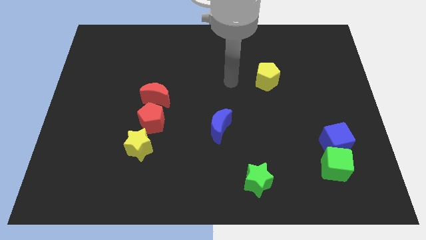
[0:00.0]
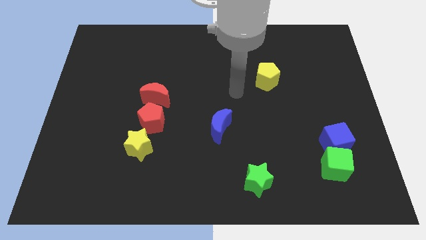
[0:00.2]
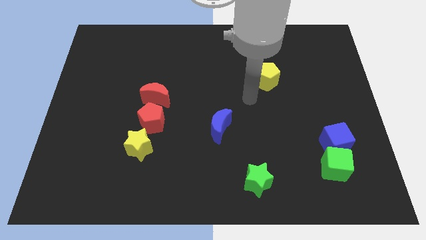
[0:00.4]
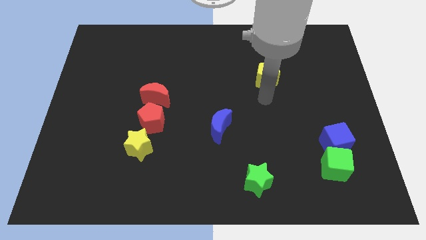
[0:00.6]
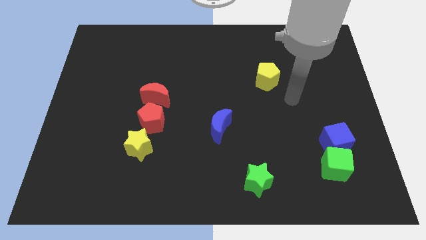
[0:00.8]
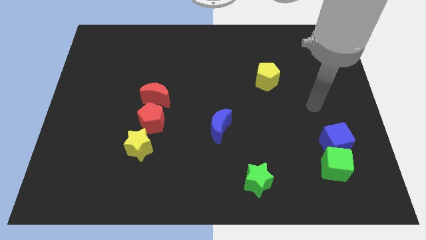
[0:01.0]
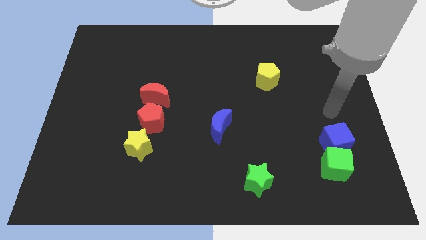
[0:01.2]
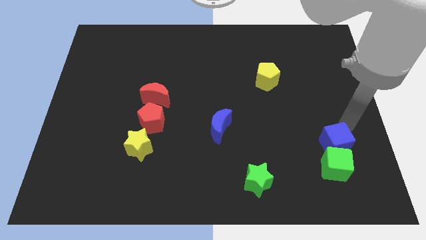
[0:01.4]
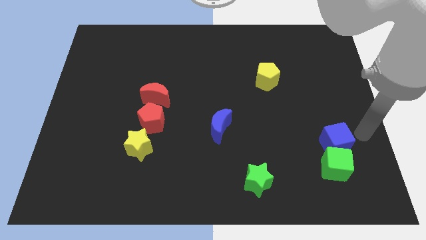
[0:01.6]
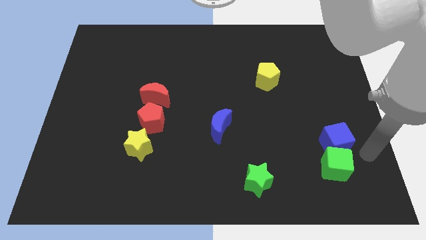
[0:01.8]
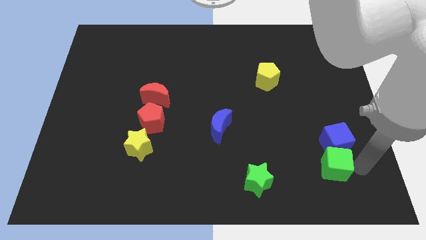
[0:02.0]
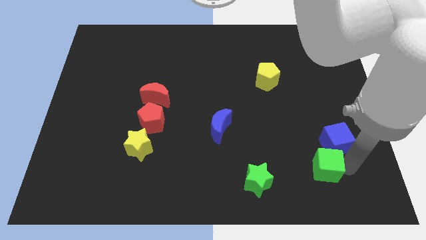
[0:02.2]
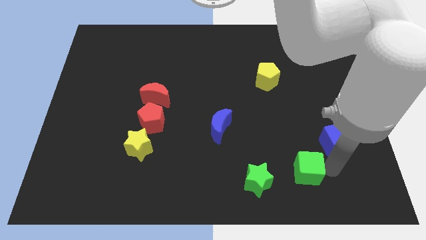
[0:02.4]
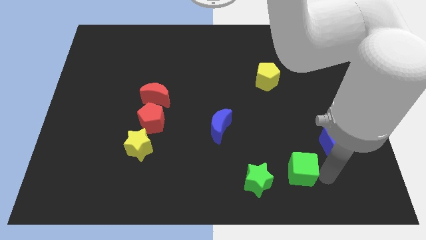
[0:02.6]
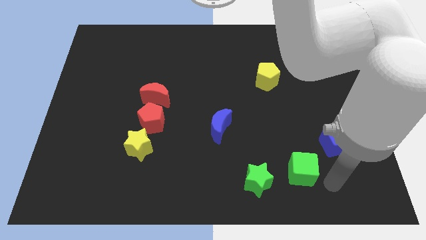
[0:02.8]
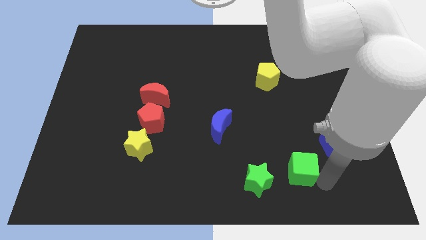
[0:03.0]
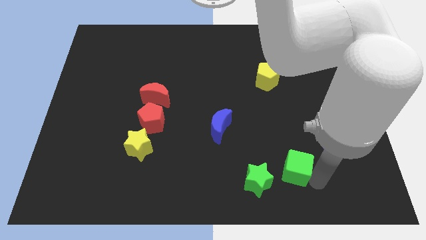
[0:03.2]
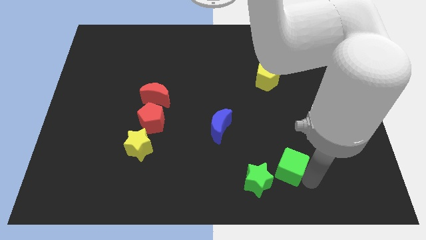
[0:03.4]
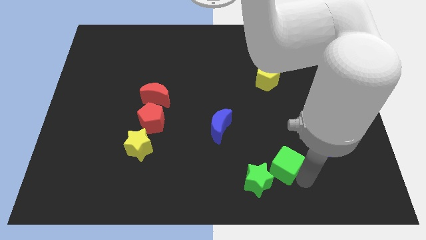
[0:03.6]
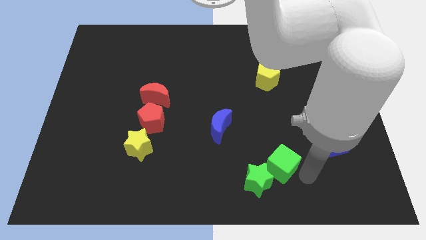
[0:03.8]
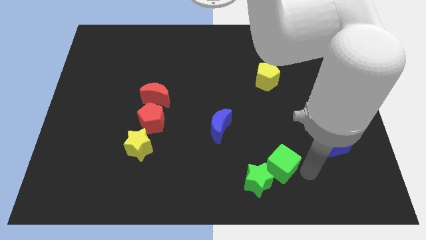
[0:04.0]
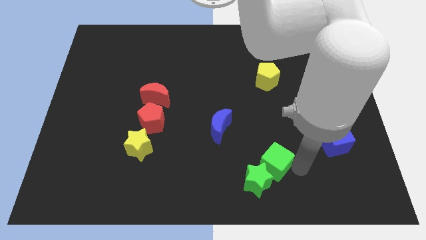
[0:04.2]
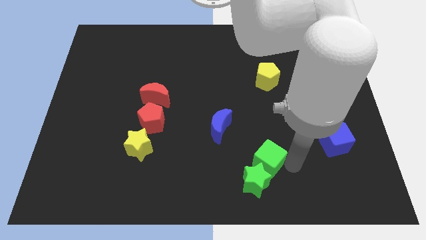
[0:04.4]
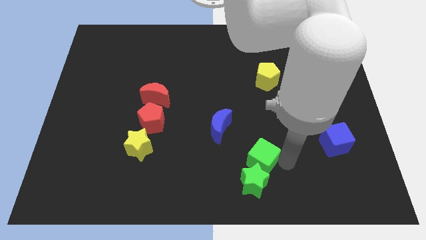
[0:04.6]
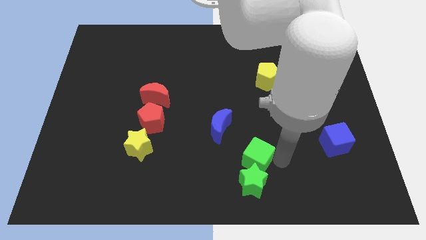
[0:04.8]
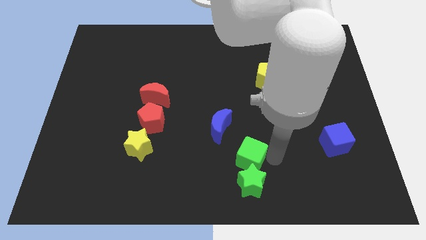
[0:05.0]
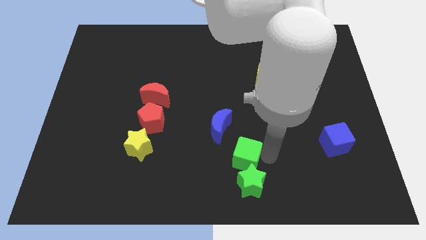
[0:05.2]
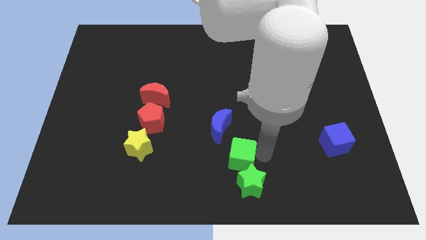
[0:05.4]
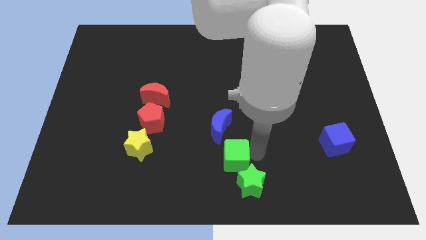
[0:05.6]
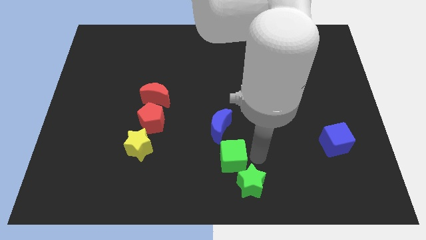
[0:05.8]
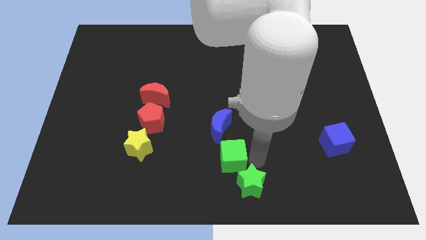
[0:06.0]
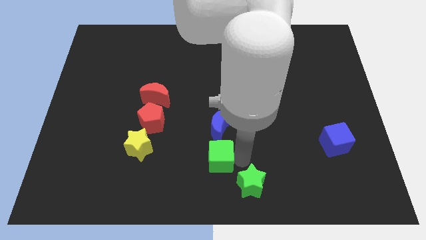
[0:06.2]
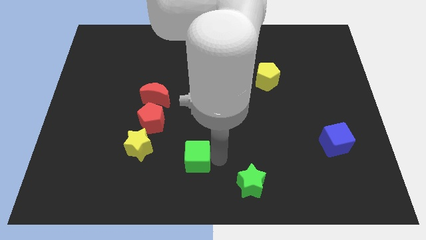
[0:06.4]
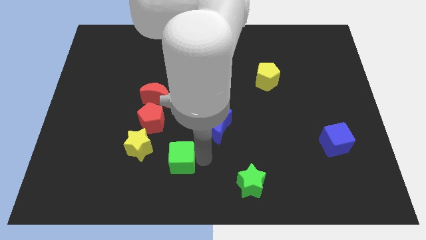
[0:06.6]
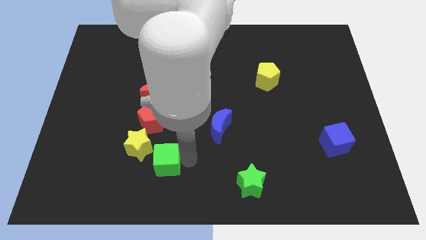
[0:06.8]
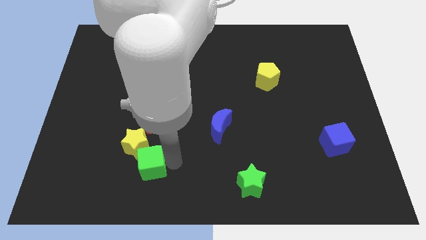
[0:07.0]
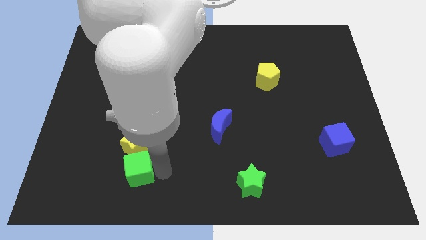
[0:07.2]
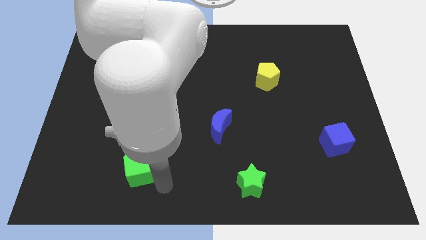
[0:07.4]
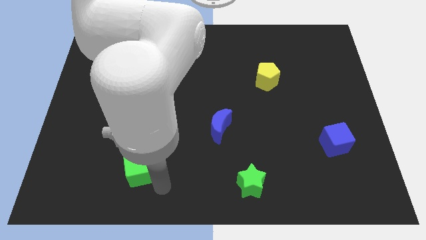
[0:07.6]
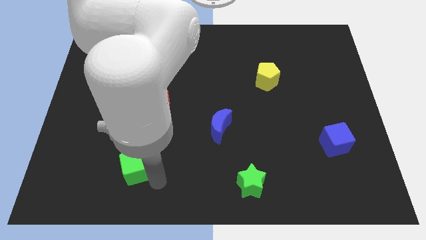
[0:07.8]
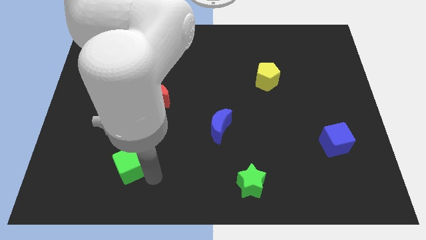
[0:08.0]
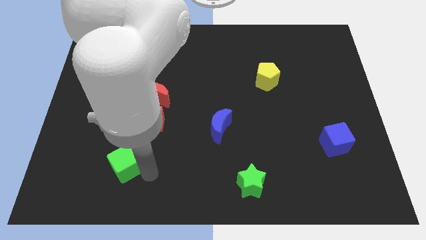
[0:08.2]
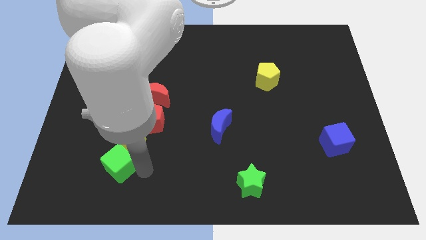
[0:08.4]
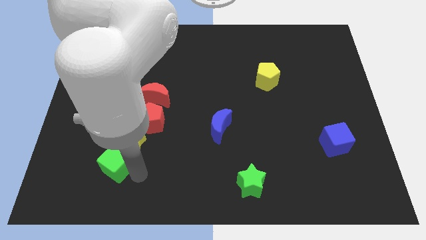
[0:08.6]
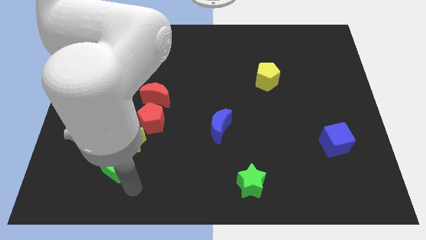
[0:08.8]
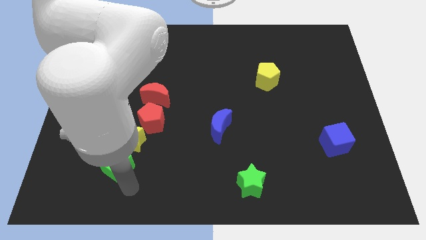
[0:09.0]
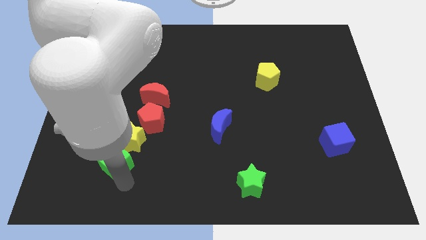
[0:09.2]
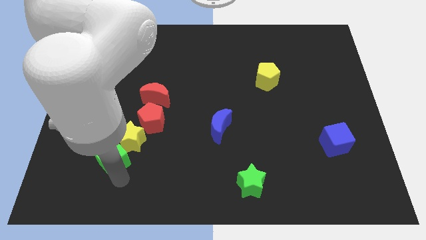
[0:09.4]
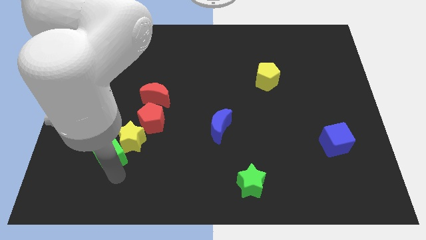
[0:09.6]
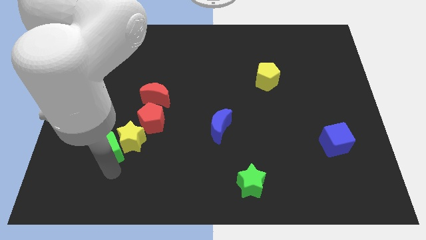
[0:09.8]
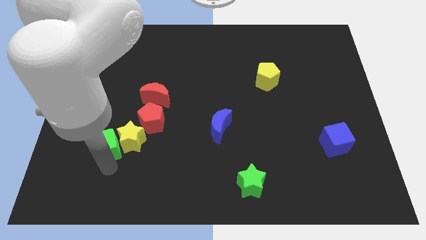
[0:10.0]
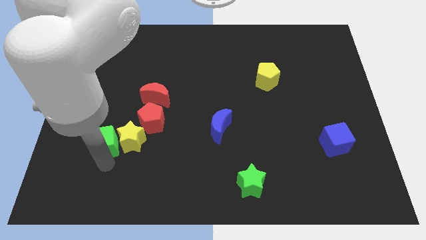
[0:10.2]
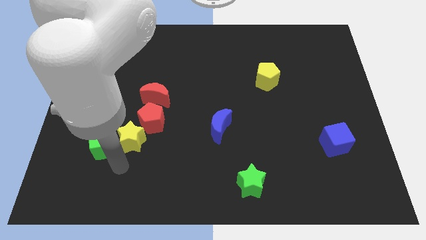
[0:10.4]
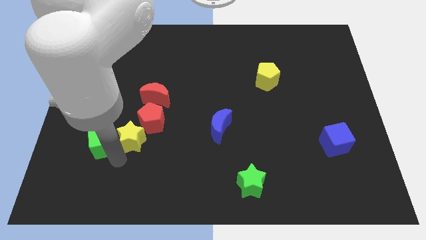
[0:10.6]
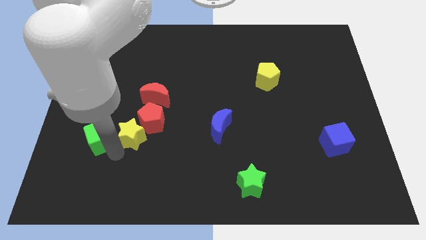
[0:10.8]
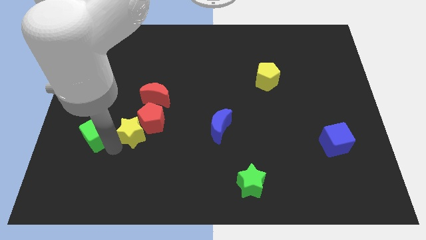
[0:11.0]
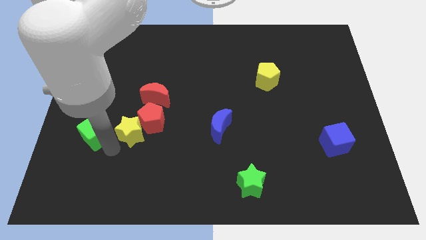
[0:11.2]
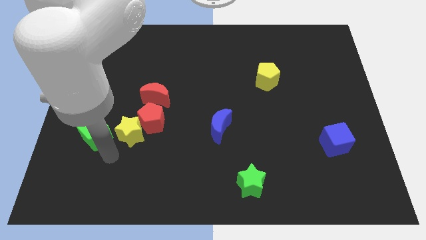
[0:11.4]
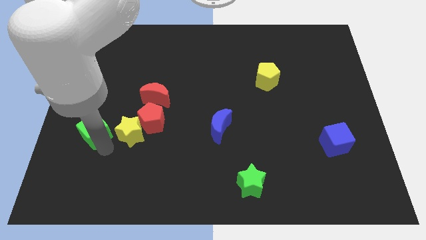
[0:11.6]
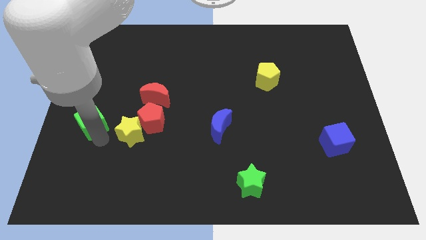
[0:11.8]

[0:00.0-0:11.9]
push the green cube to the left side
